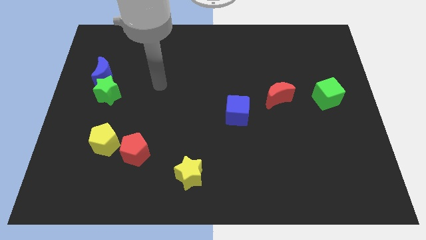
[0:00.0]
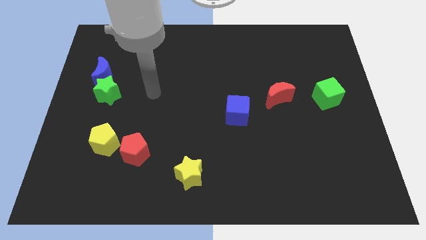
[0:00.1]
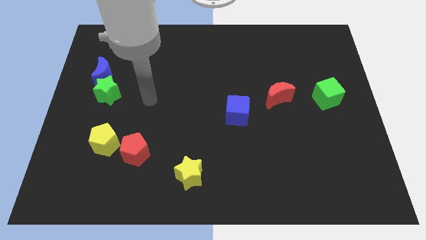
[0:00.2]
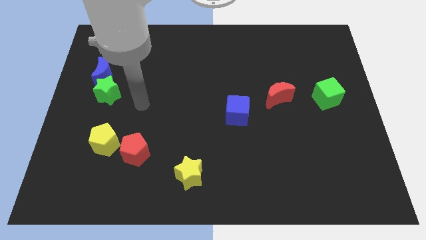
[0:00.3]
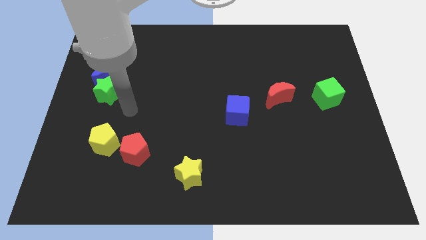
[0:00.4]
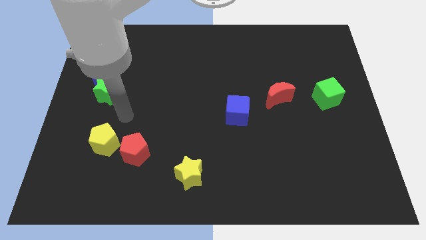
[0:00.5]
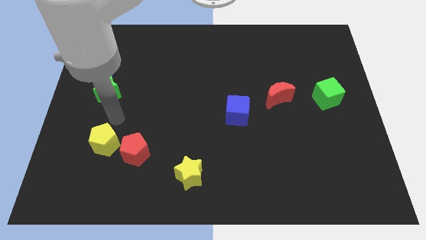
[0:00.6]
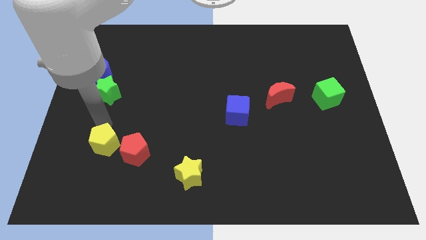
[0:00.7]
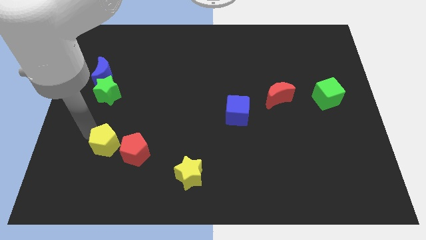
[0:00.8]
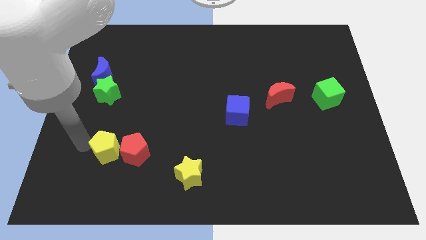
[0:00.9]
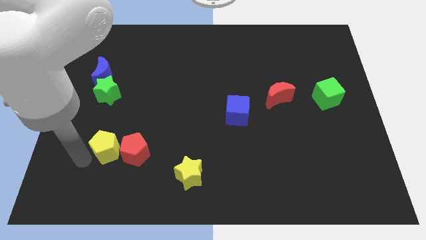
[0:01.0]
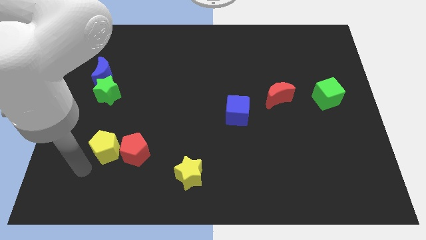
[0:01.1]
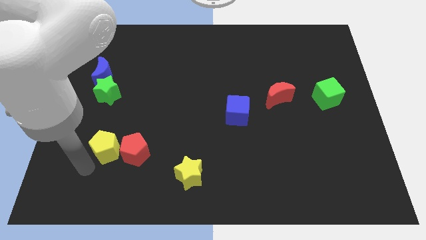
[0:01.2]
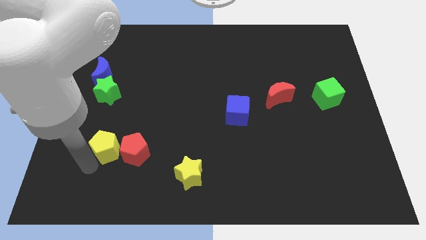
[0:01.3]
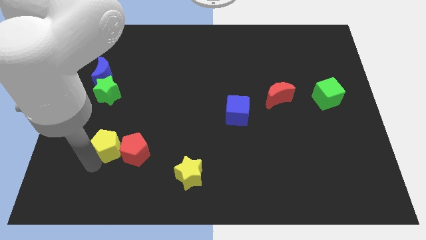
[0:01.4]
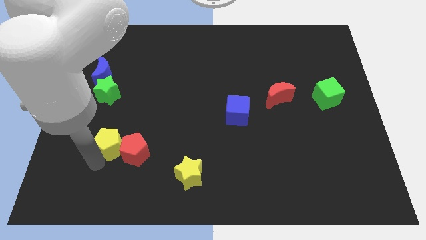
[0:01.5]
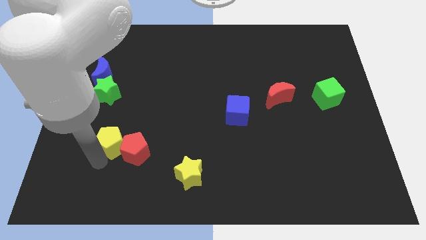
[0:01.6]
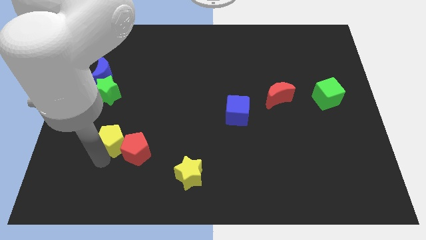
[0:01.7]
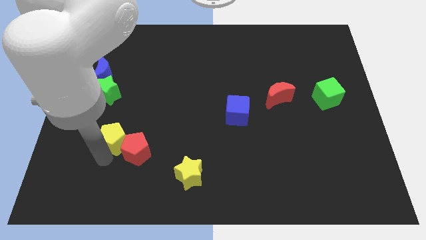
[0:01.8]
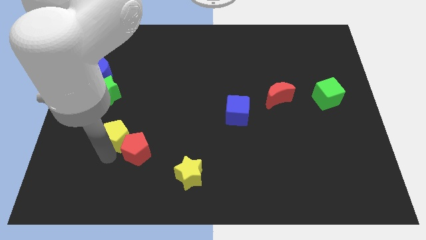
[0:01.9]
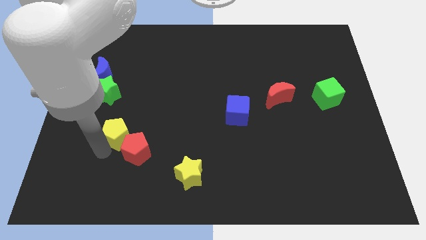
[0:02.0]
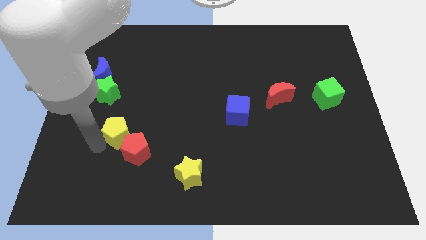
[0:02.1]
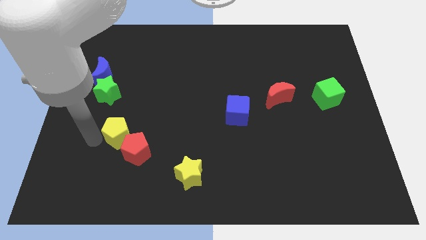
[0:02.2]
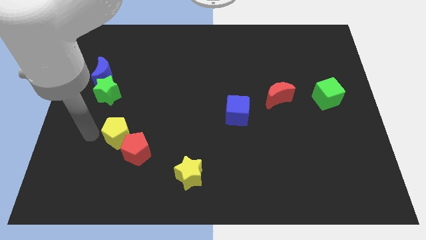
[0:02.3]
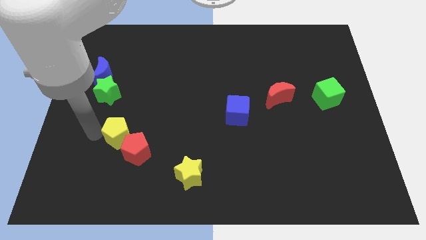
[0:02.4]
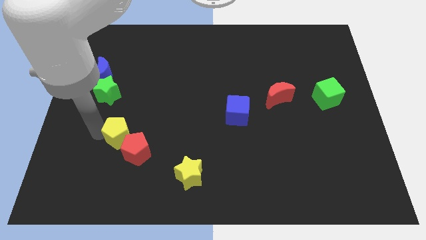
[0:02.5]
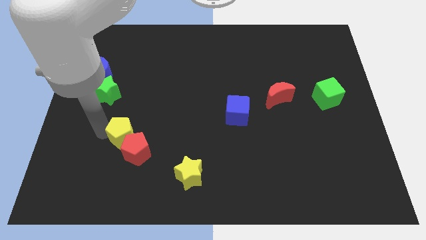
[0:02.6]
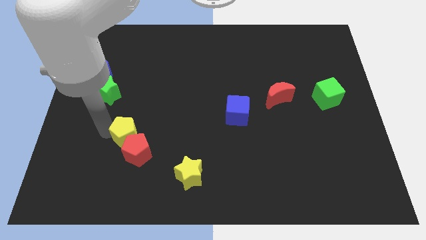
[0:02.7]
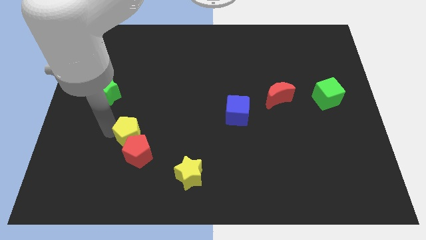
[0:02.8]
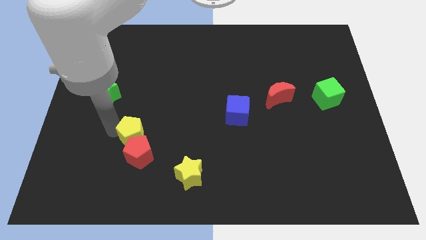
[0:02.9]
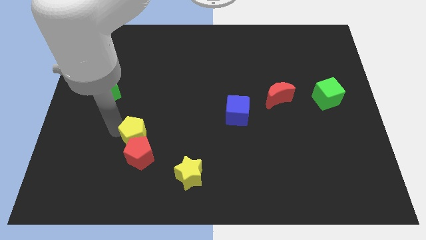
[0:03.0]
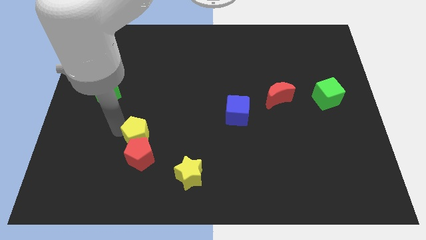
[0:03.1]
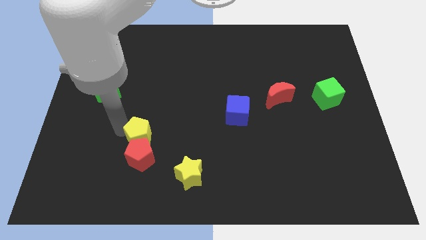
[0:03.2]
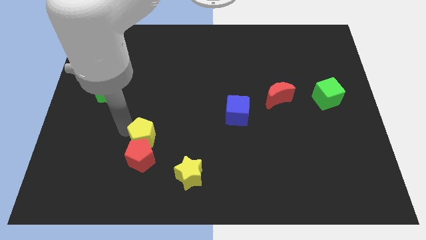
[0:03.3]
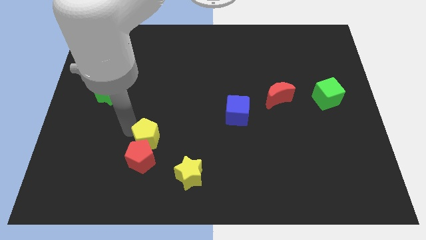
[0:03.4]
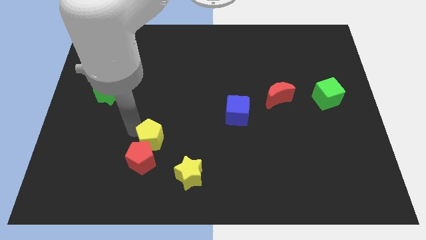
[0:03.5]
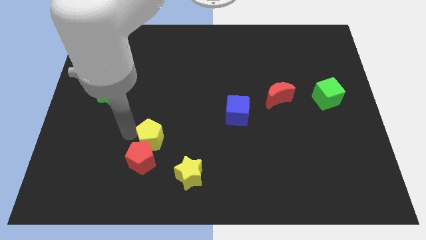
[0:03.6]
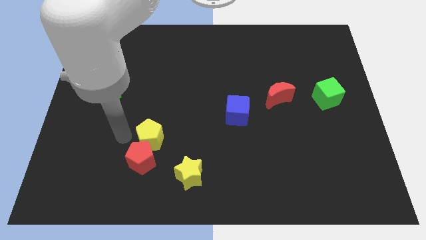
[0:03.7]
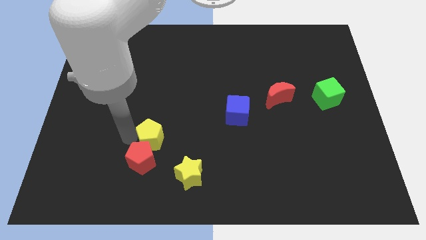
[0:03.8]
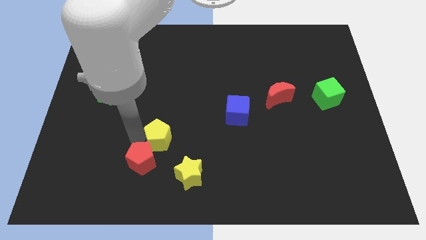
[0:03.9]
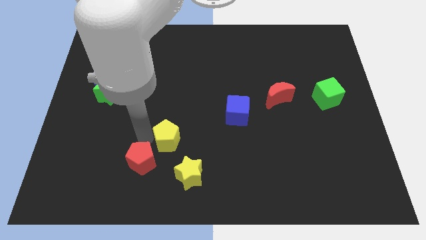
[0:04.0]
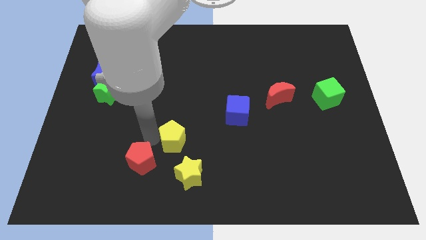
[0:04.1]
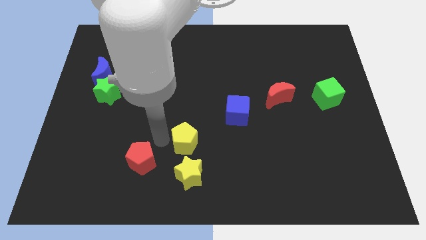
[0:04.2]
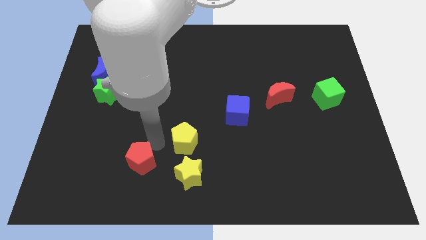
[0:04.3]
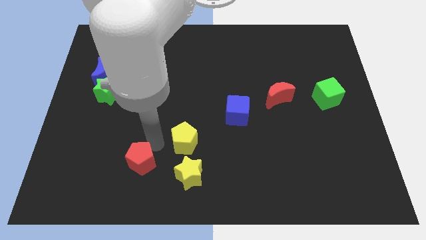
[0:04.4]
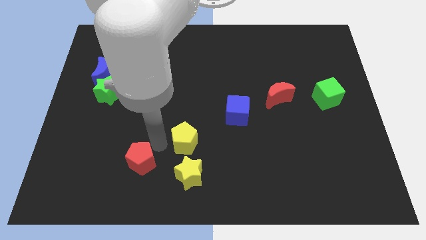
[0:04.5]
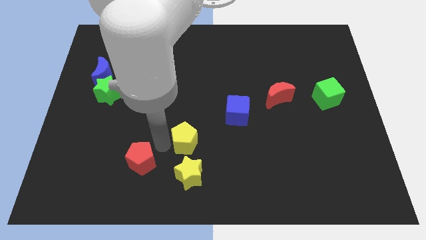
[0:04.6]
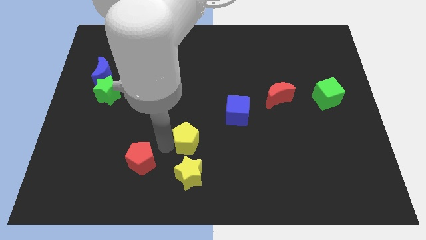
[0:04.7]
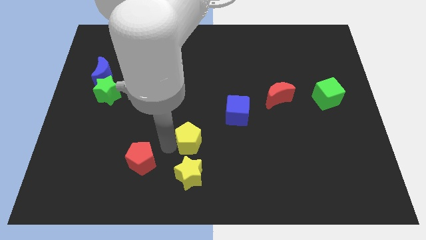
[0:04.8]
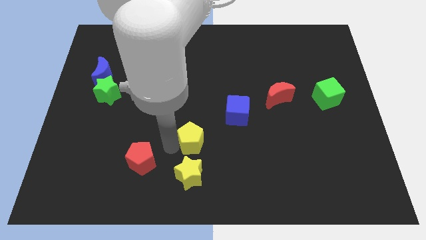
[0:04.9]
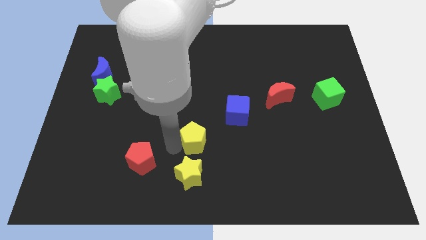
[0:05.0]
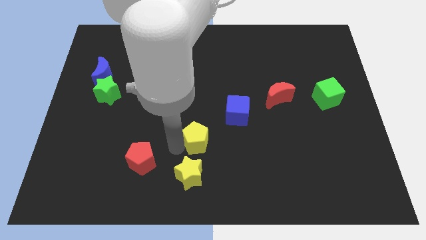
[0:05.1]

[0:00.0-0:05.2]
move the yellow pentagon right

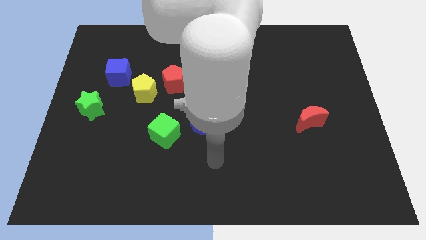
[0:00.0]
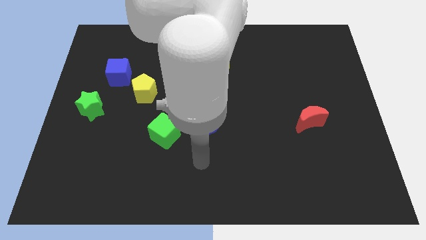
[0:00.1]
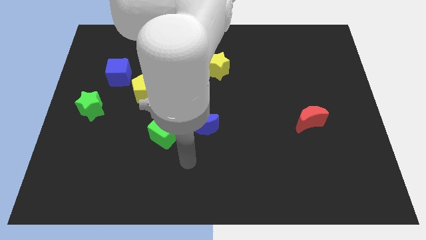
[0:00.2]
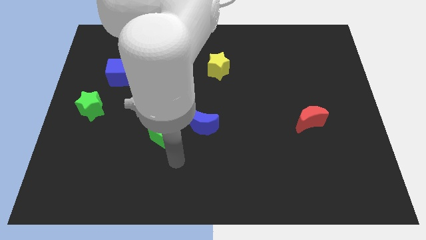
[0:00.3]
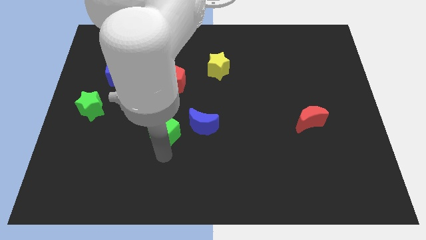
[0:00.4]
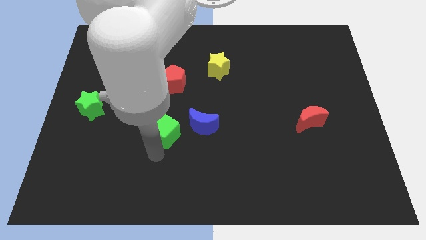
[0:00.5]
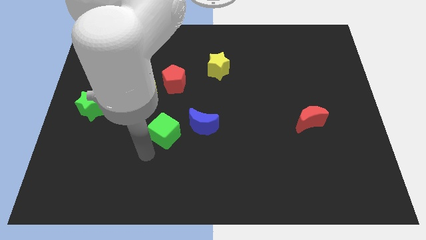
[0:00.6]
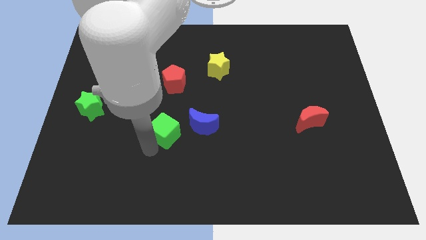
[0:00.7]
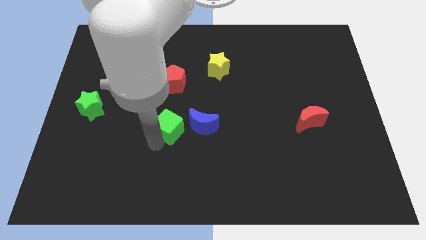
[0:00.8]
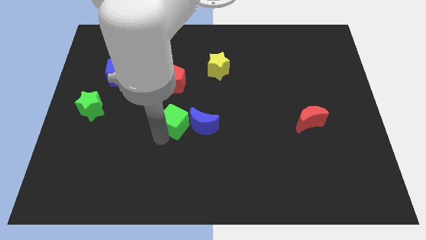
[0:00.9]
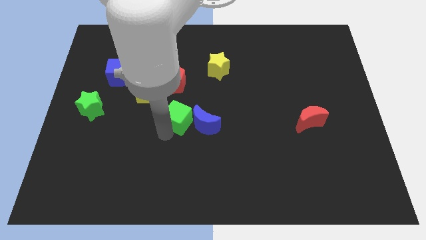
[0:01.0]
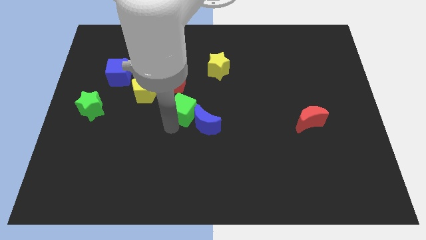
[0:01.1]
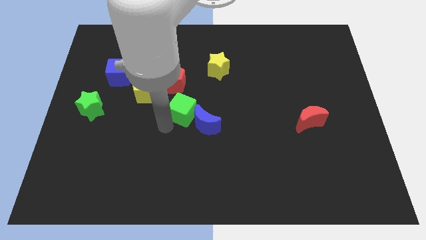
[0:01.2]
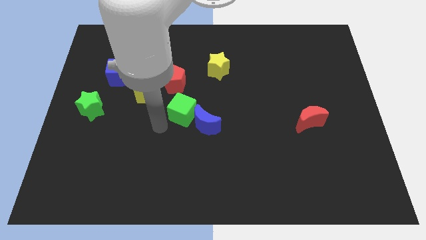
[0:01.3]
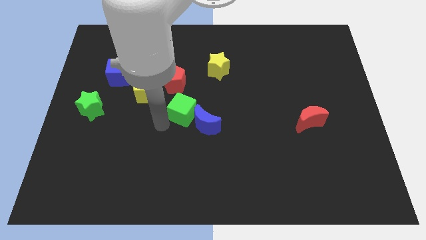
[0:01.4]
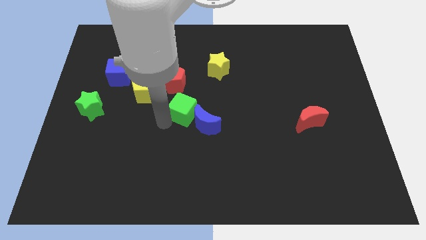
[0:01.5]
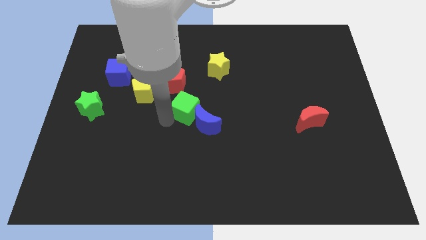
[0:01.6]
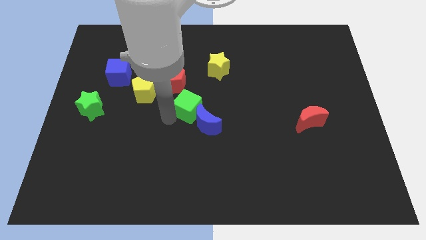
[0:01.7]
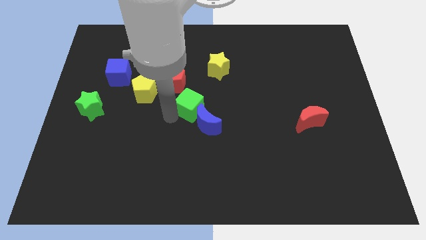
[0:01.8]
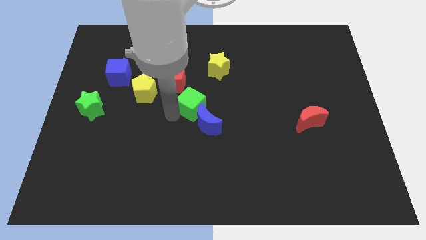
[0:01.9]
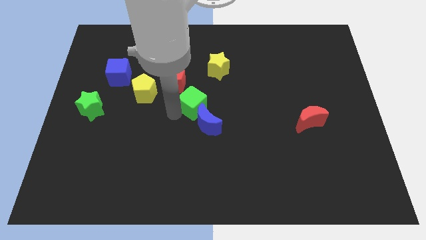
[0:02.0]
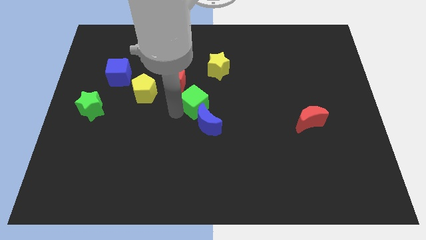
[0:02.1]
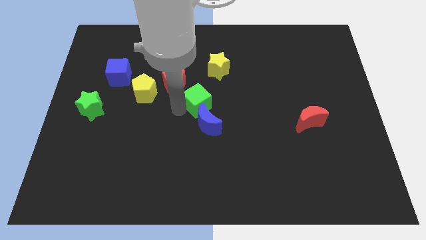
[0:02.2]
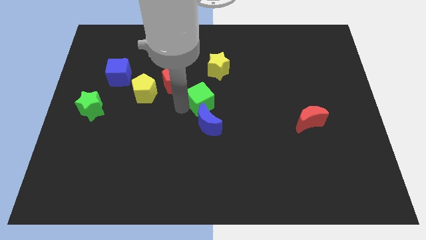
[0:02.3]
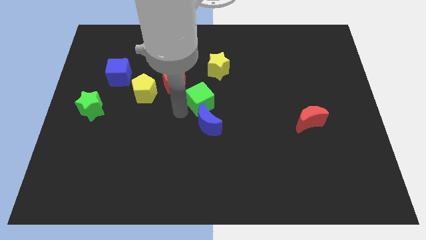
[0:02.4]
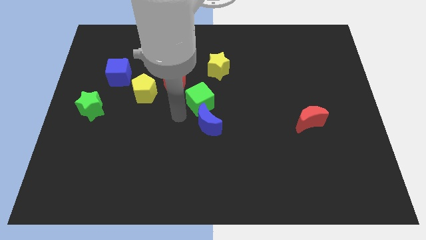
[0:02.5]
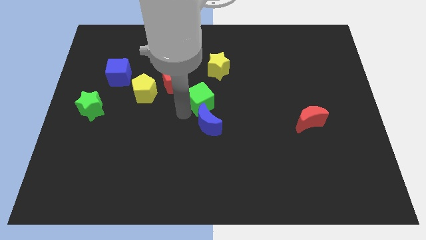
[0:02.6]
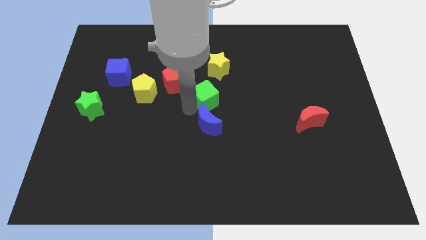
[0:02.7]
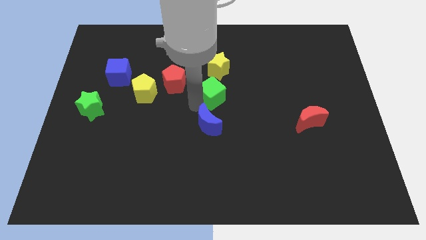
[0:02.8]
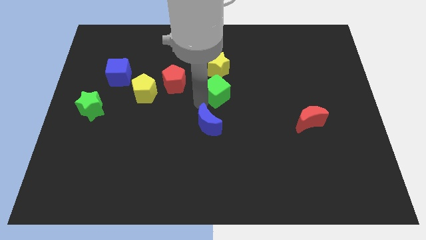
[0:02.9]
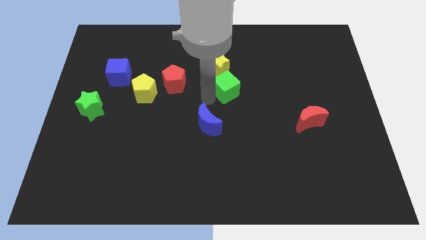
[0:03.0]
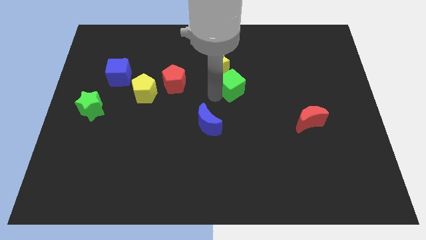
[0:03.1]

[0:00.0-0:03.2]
move the green cube up and right
